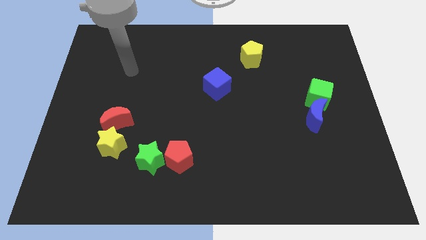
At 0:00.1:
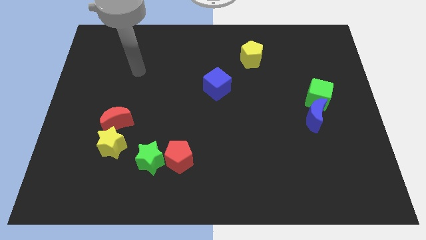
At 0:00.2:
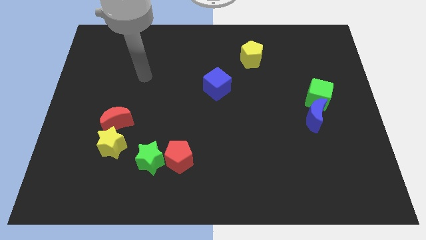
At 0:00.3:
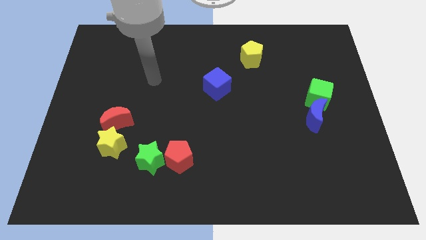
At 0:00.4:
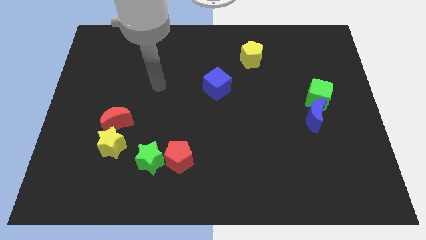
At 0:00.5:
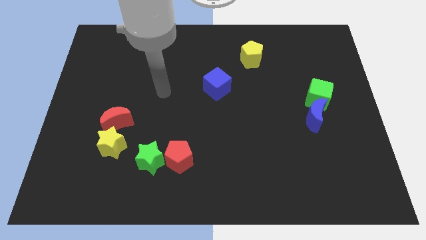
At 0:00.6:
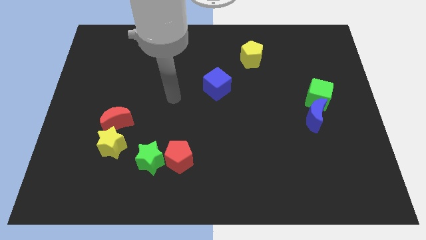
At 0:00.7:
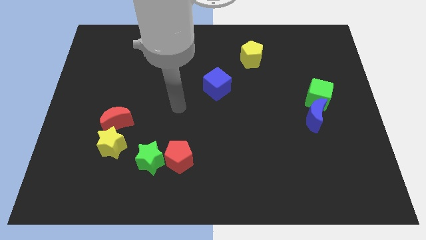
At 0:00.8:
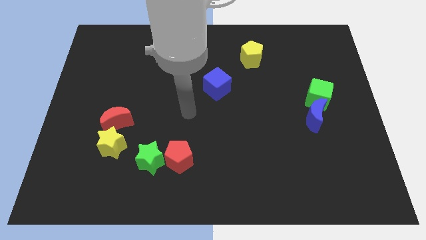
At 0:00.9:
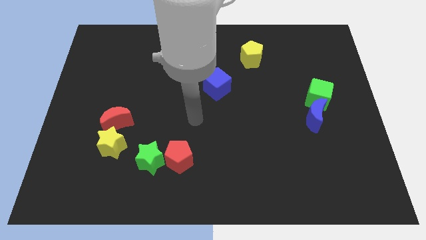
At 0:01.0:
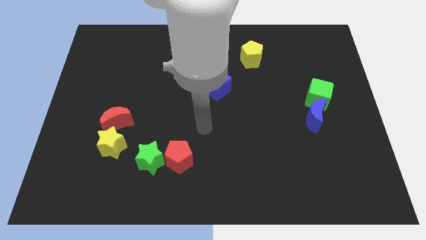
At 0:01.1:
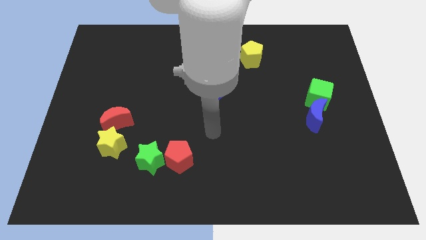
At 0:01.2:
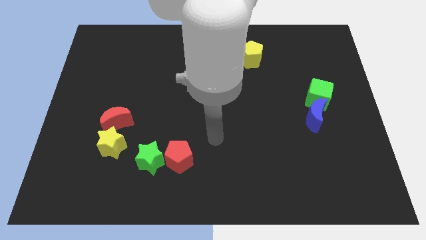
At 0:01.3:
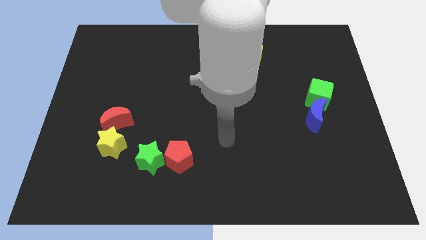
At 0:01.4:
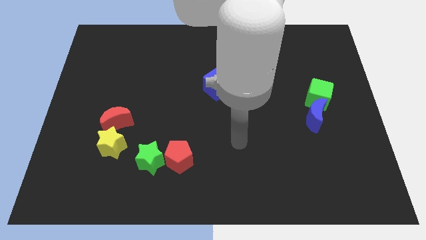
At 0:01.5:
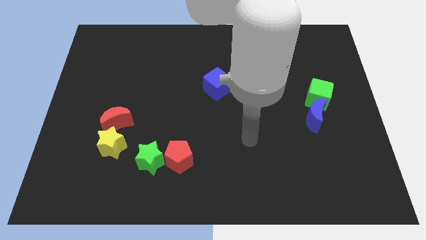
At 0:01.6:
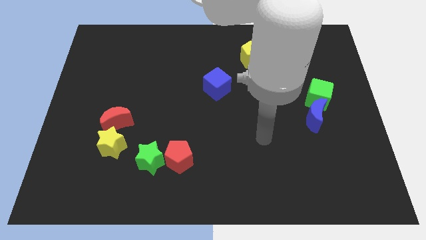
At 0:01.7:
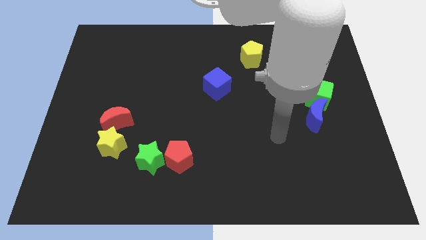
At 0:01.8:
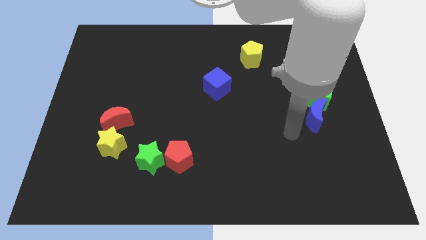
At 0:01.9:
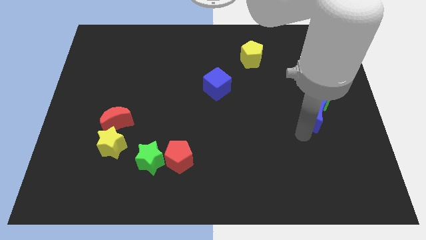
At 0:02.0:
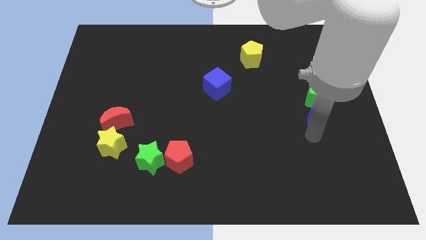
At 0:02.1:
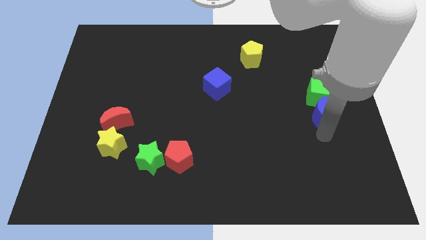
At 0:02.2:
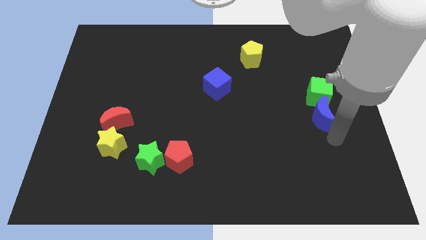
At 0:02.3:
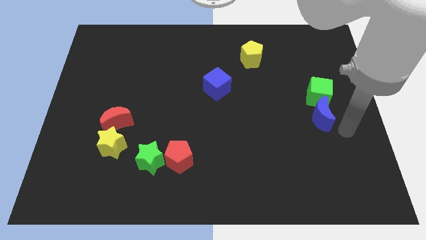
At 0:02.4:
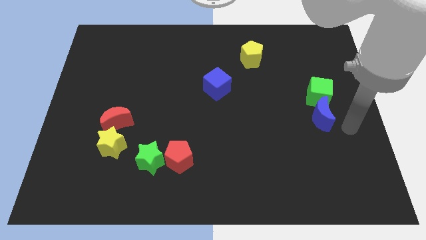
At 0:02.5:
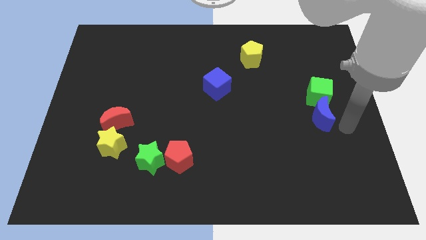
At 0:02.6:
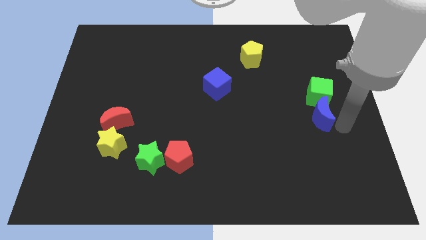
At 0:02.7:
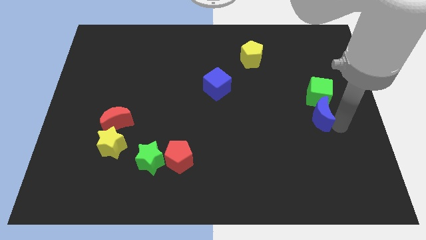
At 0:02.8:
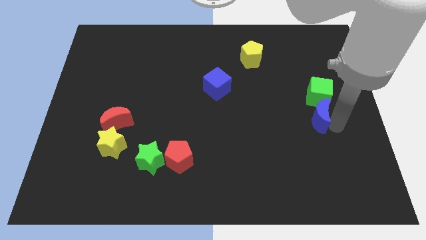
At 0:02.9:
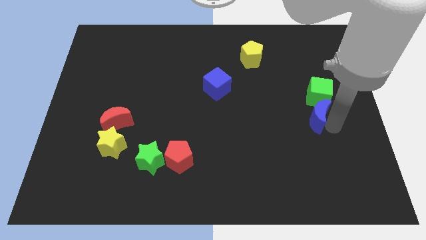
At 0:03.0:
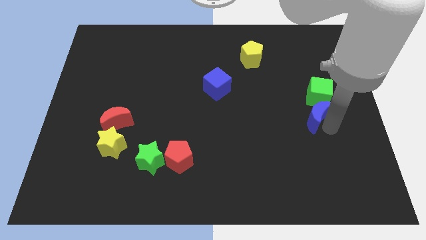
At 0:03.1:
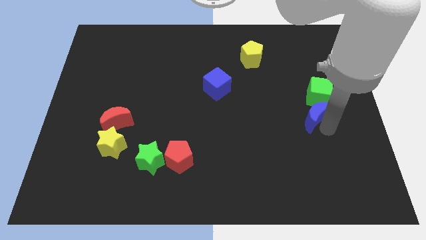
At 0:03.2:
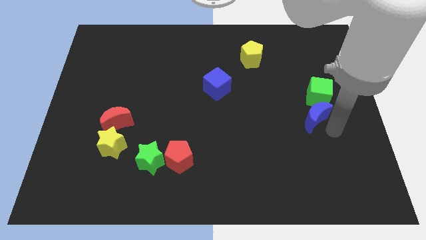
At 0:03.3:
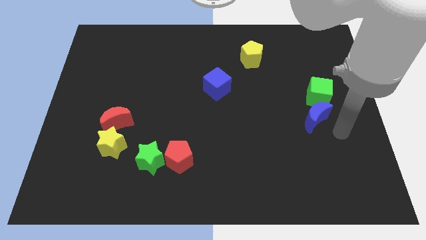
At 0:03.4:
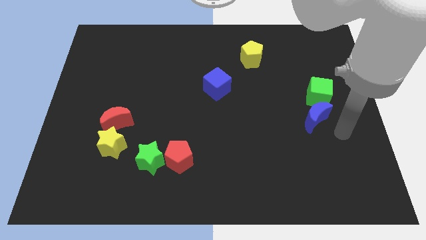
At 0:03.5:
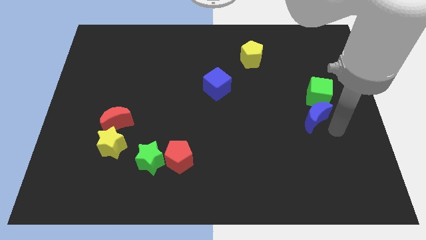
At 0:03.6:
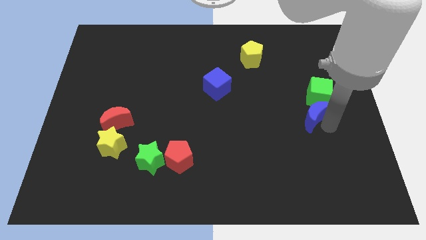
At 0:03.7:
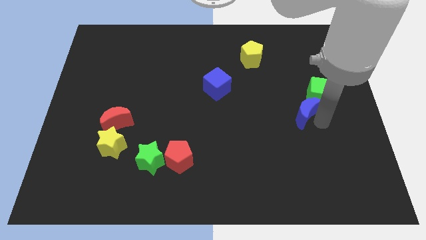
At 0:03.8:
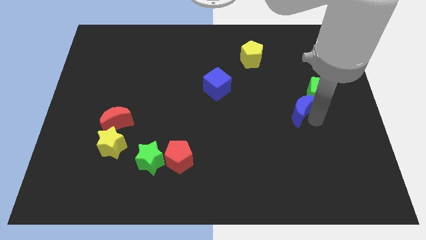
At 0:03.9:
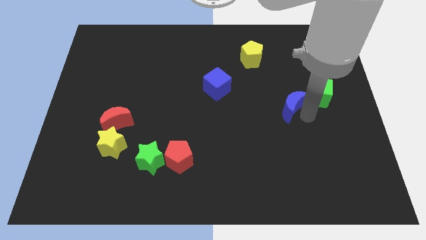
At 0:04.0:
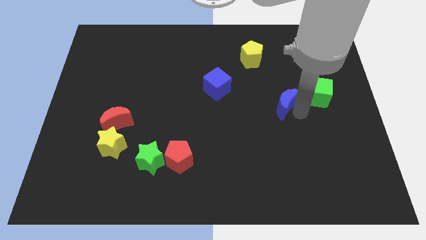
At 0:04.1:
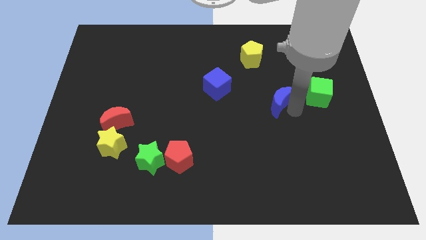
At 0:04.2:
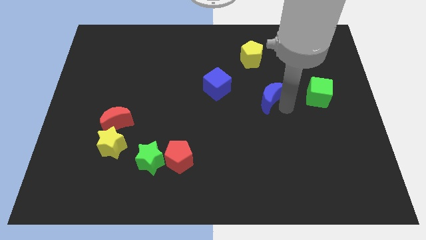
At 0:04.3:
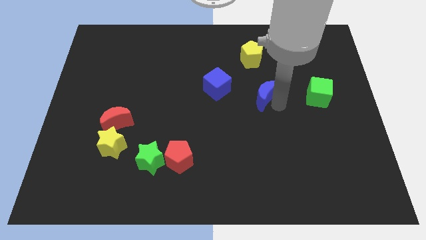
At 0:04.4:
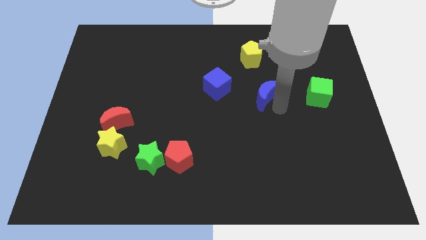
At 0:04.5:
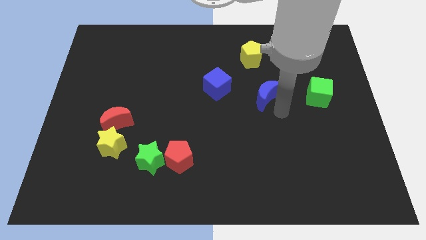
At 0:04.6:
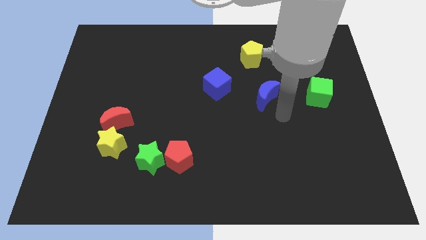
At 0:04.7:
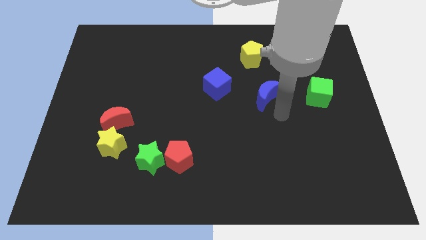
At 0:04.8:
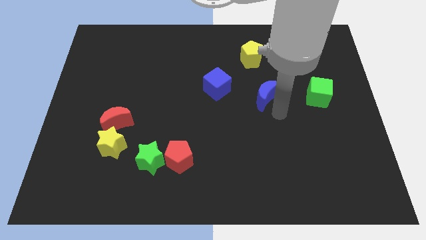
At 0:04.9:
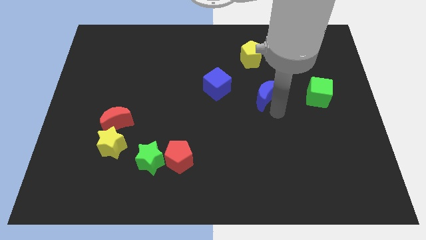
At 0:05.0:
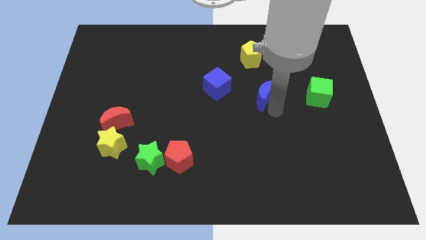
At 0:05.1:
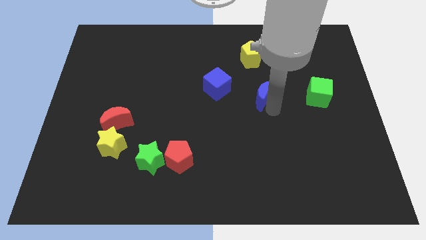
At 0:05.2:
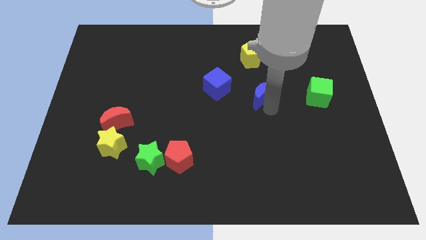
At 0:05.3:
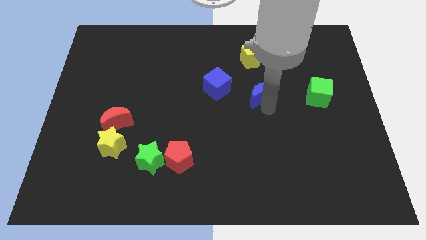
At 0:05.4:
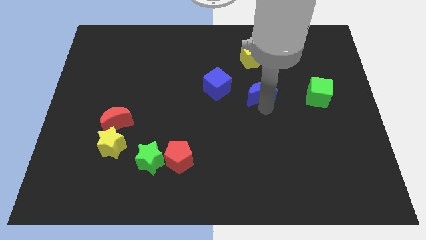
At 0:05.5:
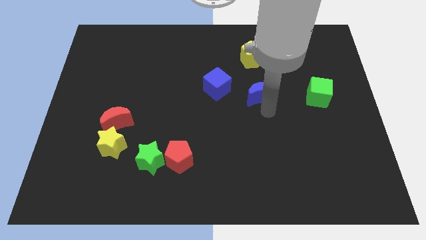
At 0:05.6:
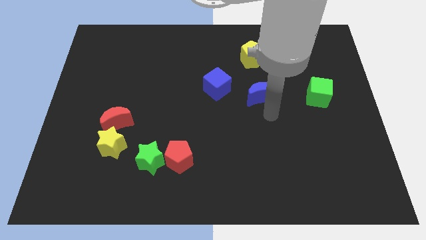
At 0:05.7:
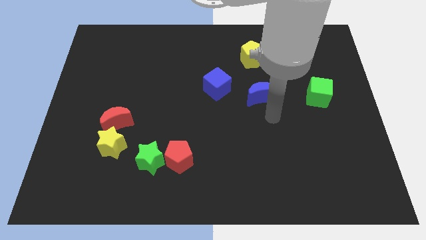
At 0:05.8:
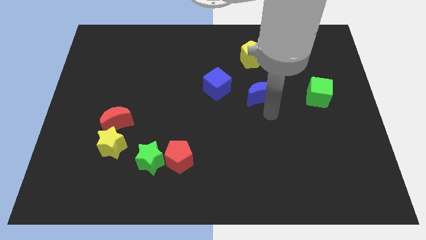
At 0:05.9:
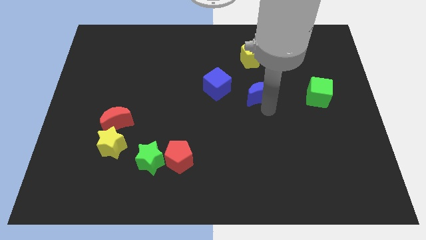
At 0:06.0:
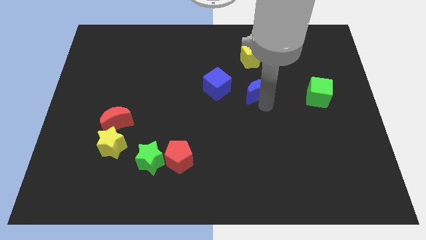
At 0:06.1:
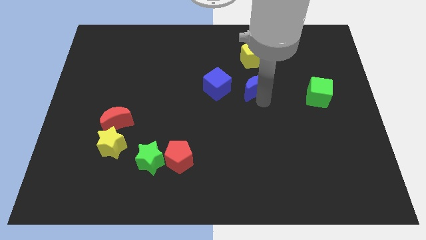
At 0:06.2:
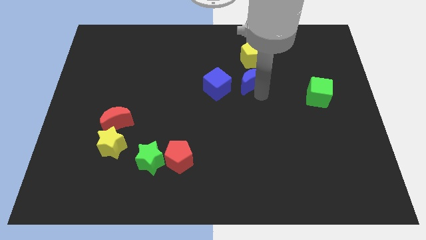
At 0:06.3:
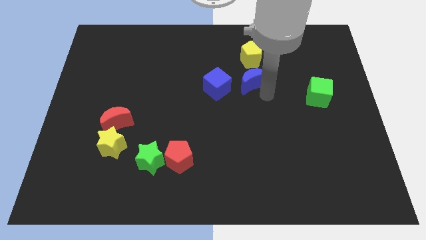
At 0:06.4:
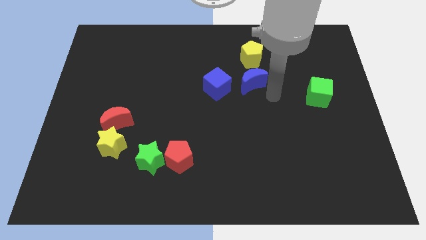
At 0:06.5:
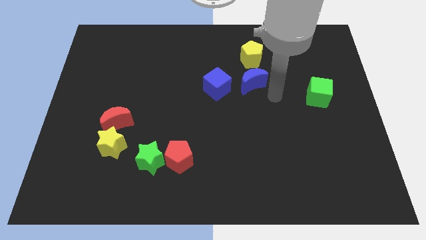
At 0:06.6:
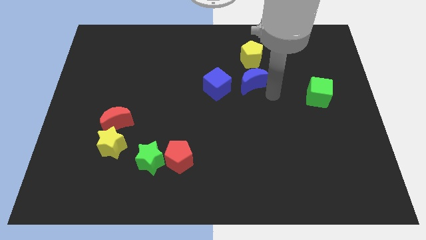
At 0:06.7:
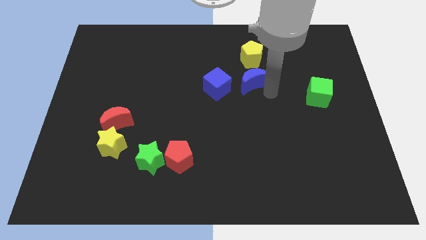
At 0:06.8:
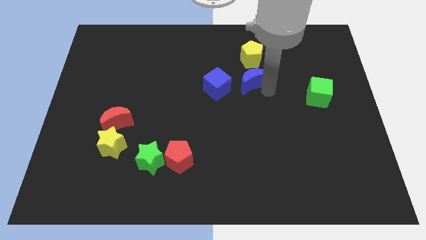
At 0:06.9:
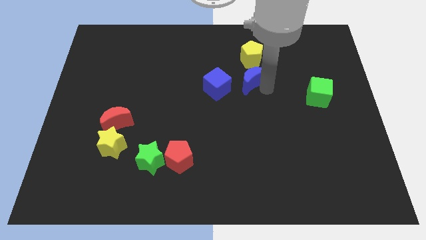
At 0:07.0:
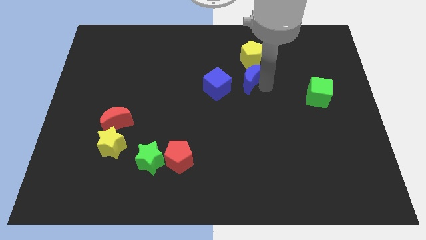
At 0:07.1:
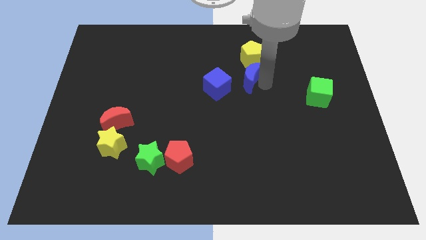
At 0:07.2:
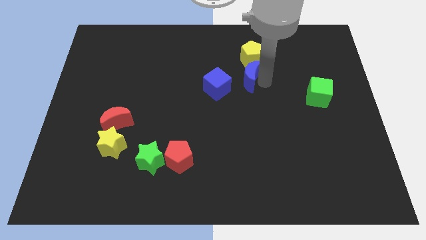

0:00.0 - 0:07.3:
push the blue moon to the bottom left of the yellow pentagon
